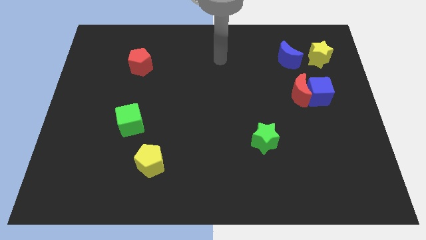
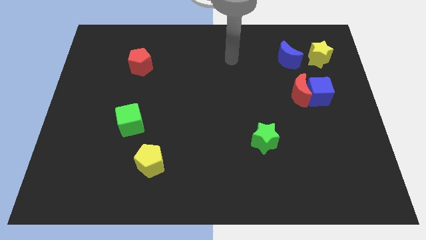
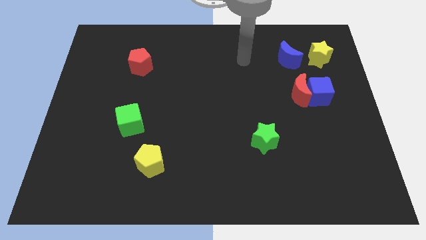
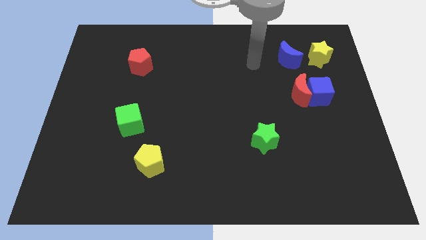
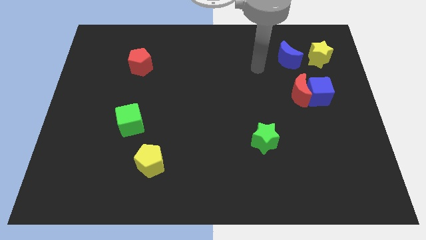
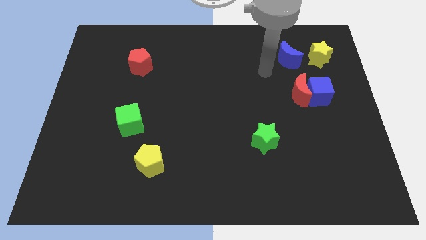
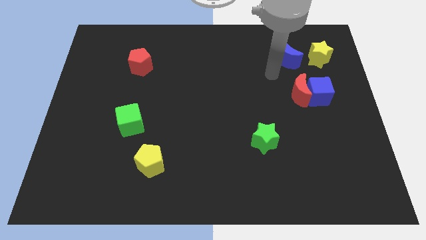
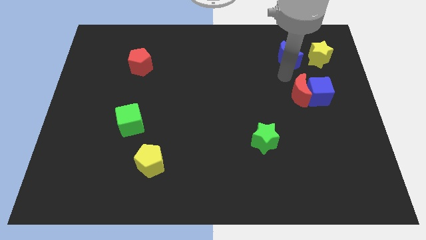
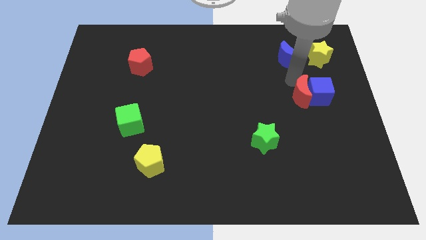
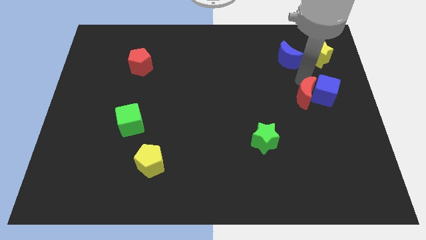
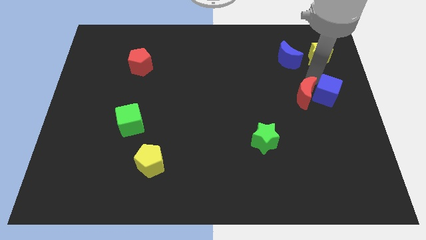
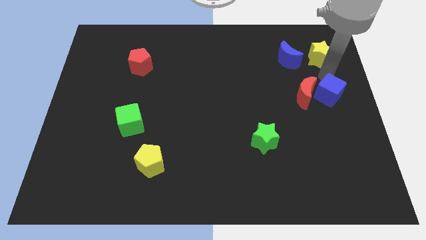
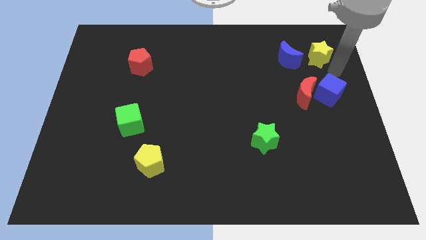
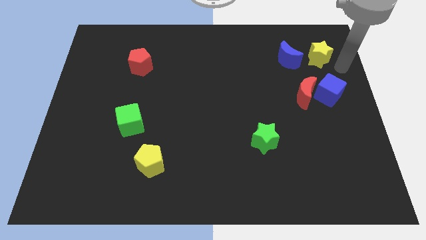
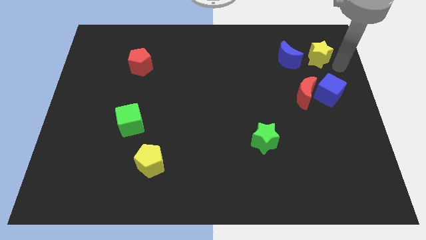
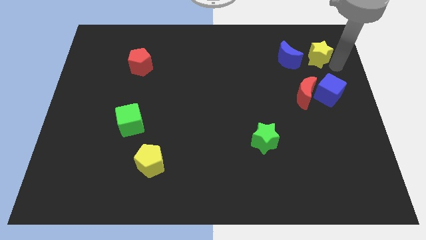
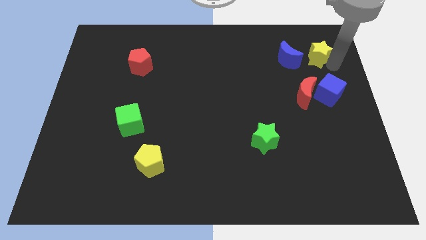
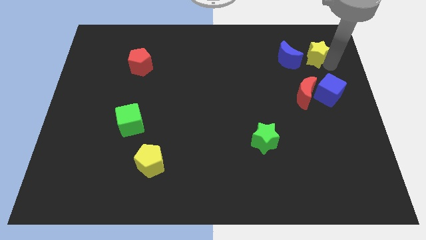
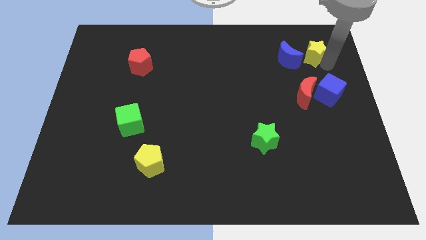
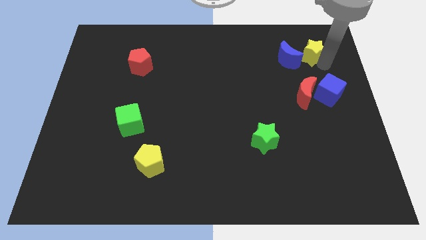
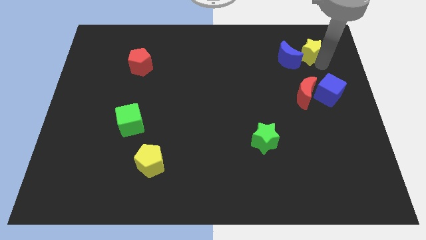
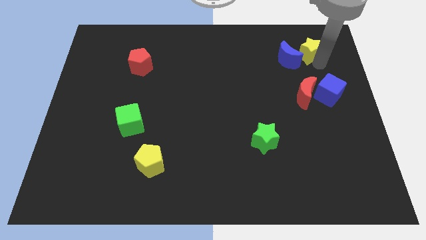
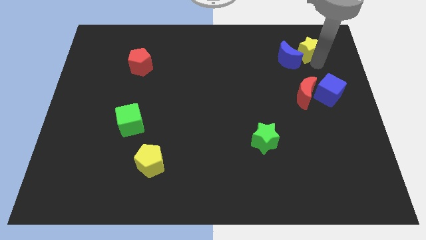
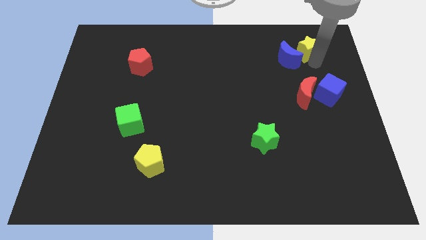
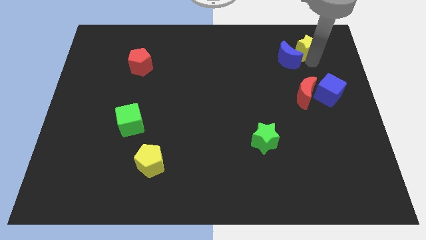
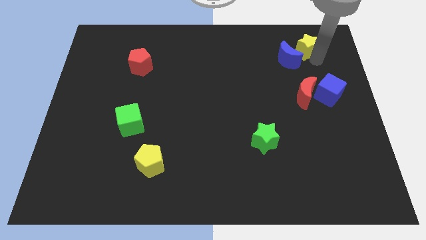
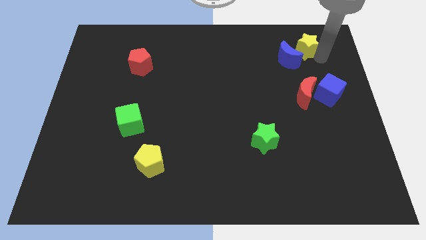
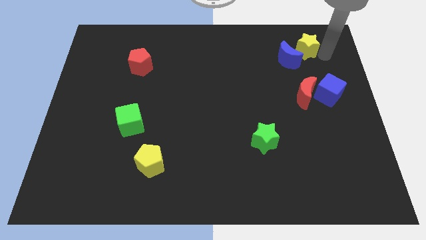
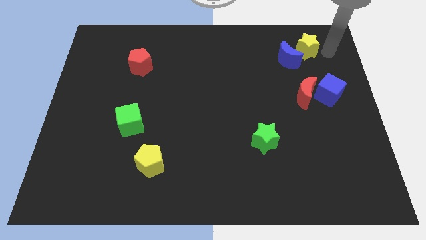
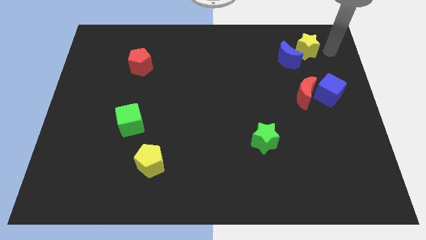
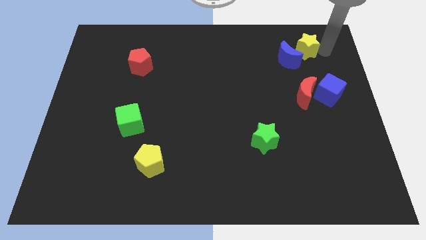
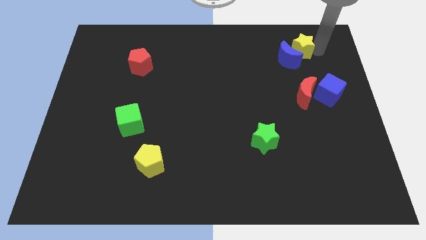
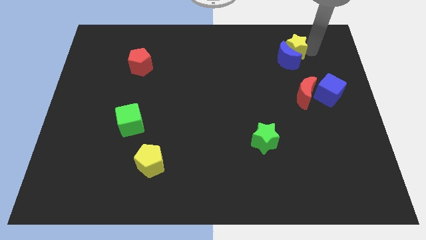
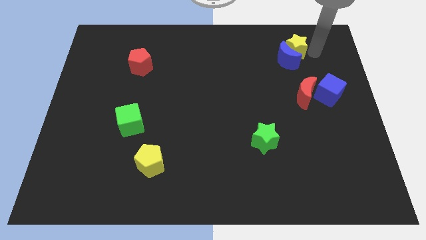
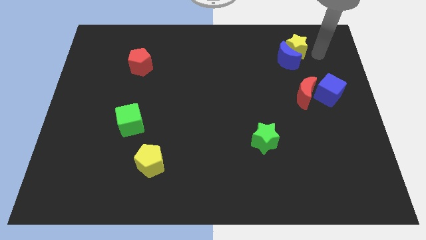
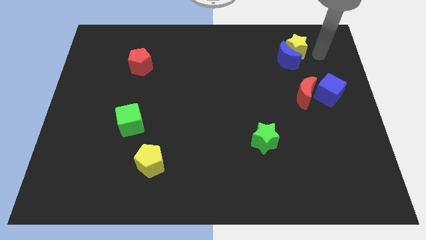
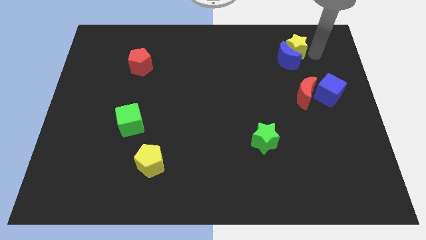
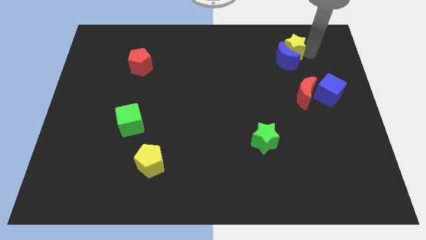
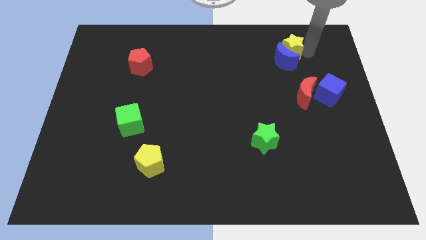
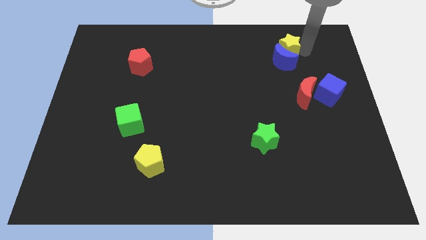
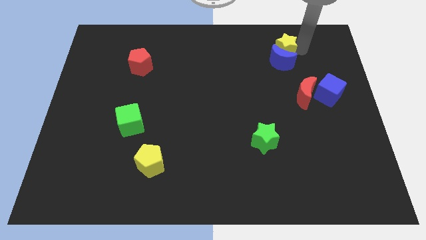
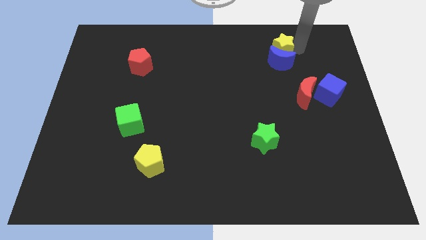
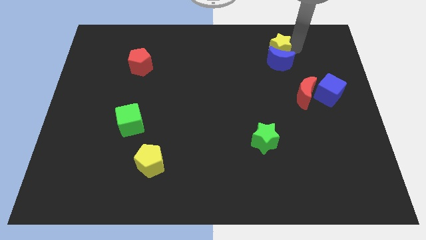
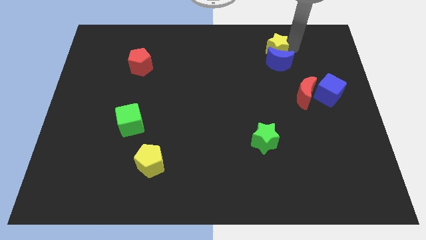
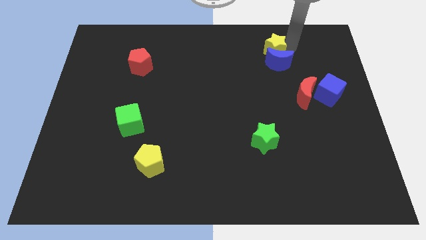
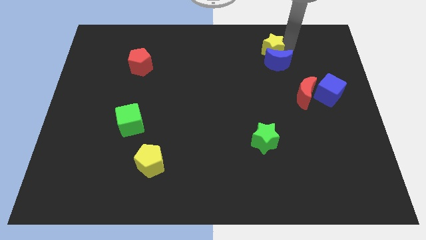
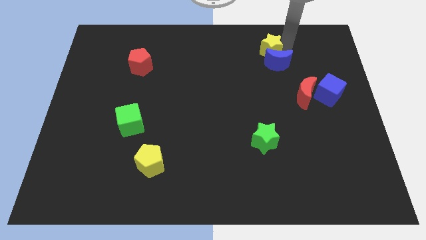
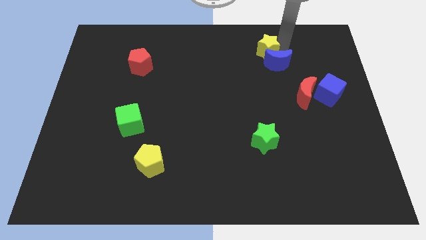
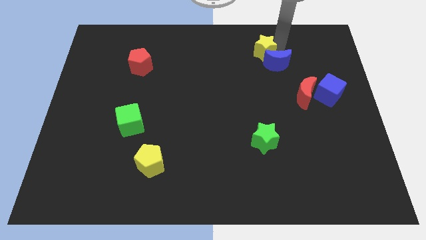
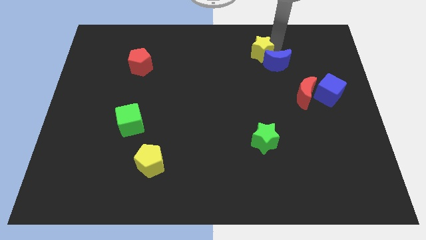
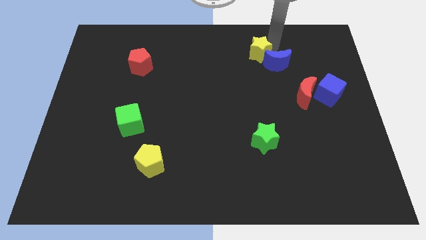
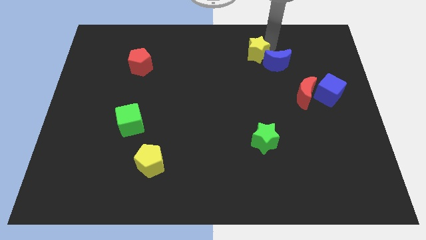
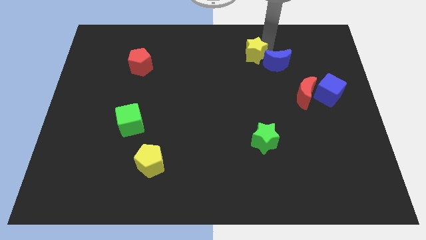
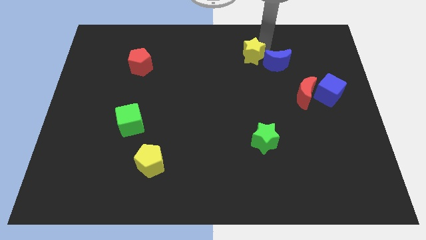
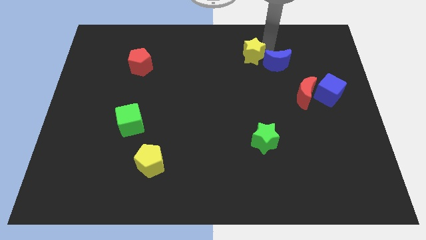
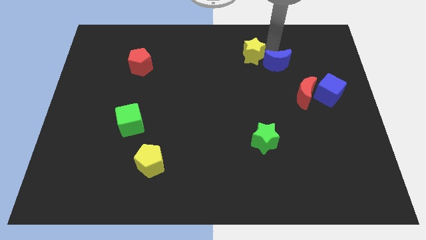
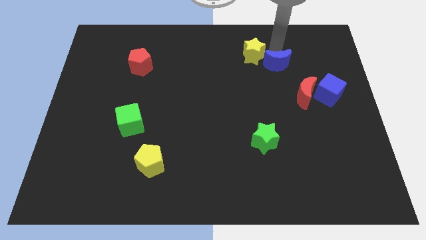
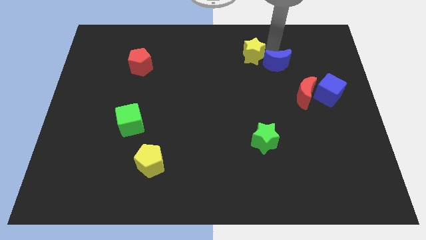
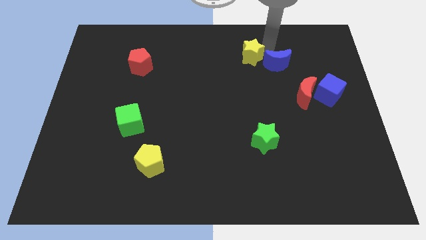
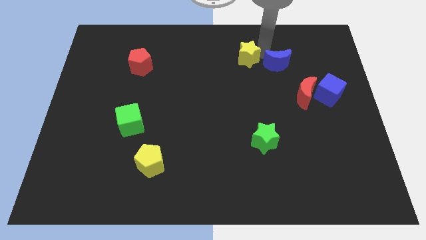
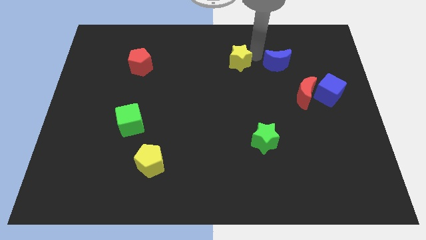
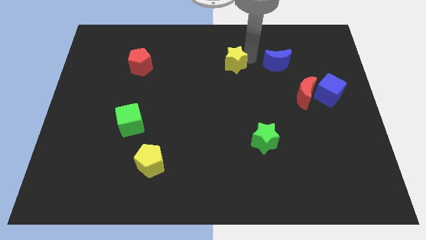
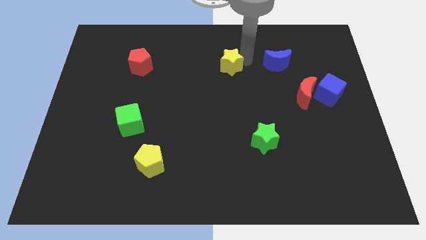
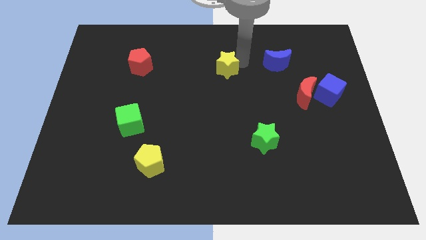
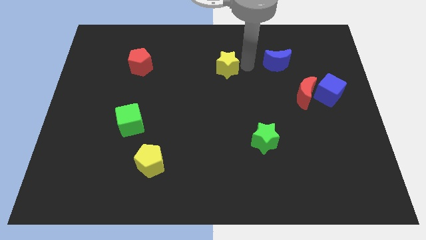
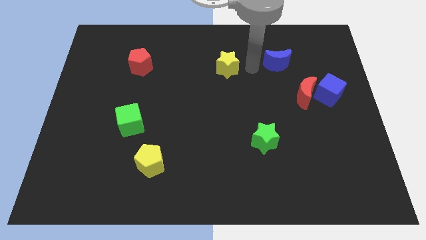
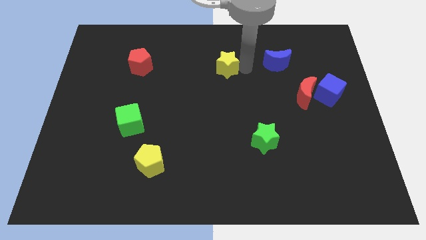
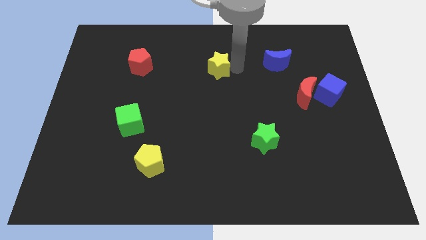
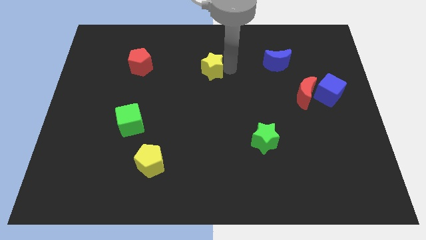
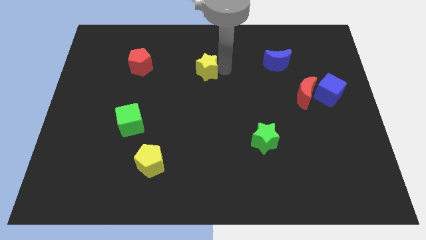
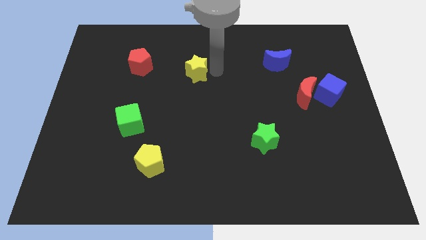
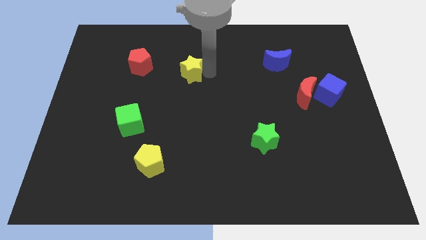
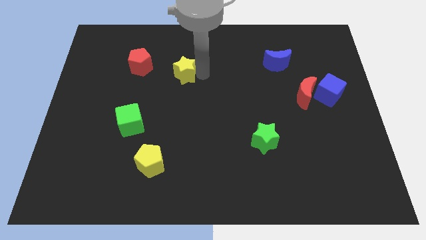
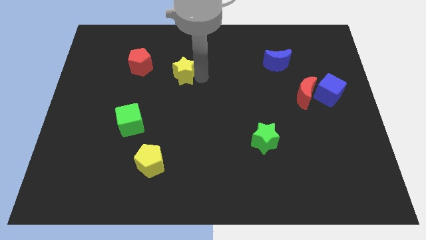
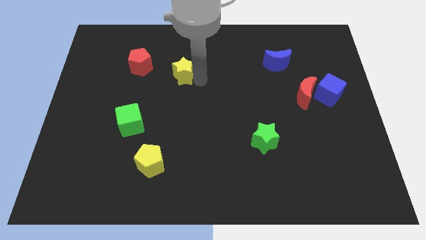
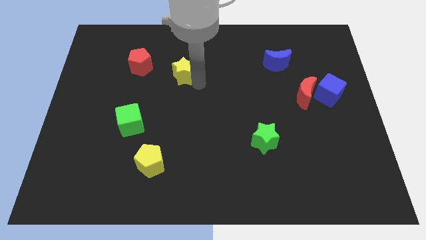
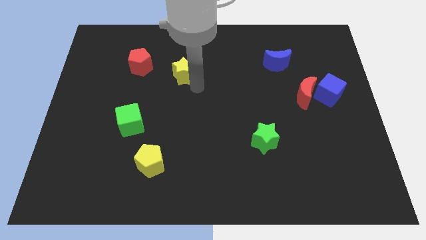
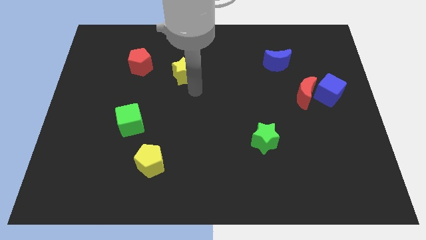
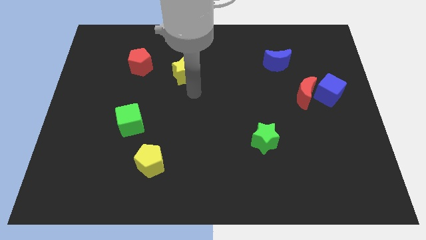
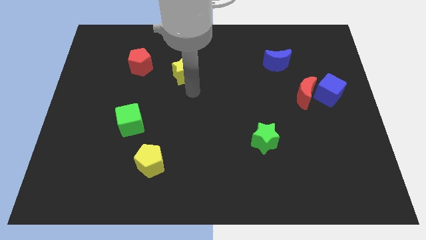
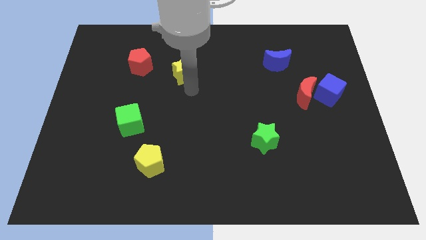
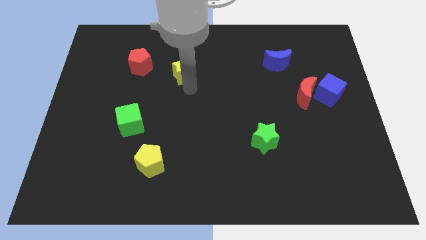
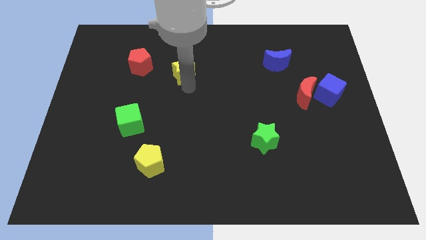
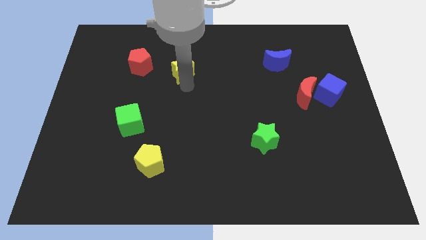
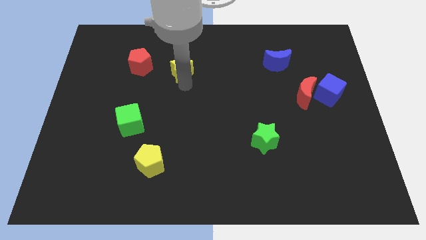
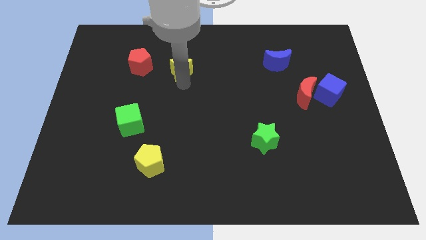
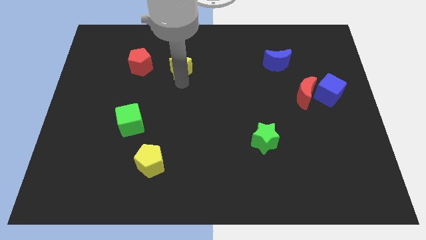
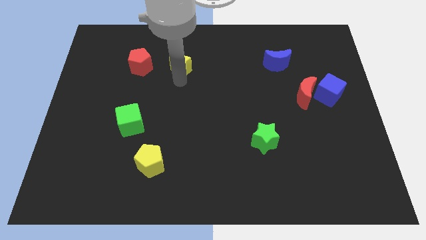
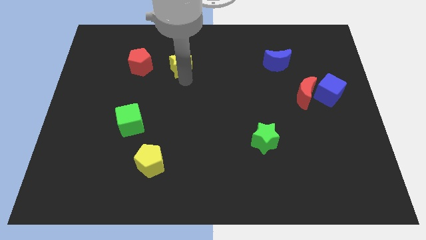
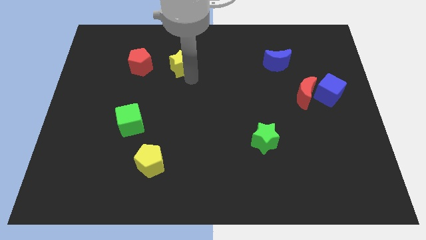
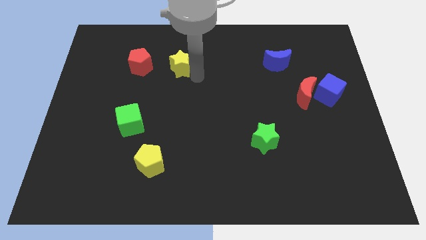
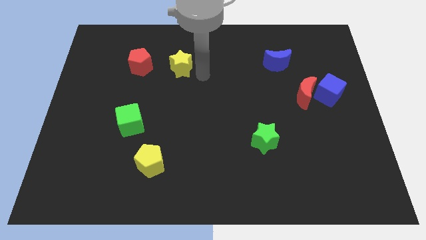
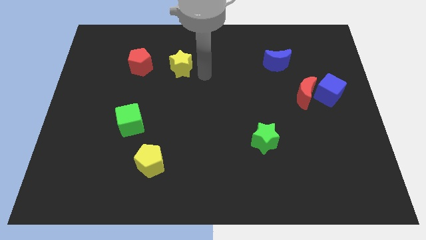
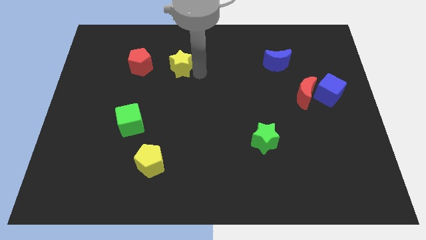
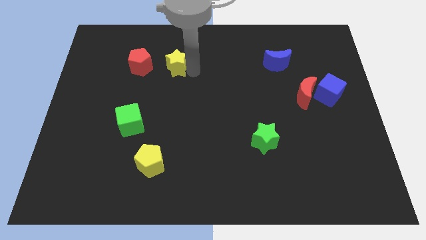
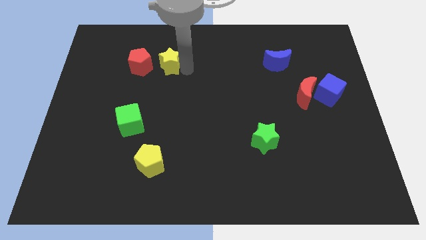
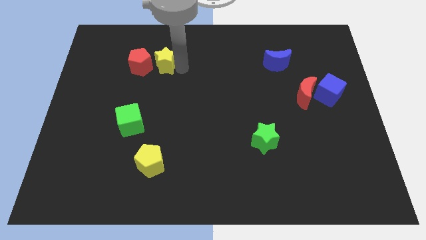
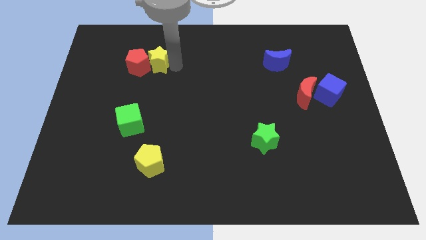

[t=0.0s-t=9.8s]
move the yellow star close to the red pentagon
